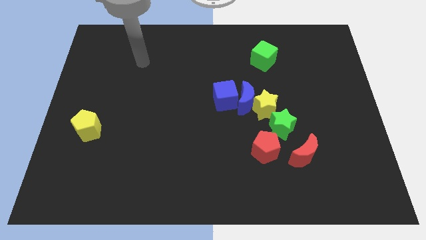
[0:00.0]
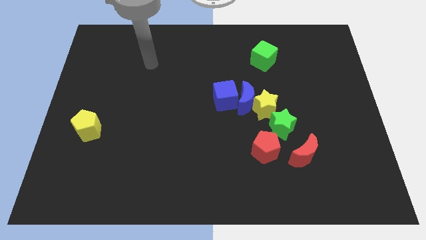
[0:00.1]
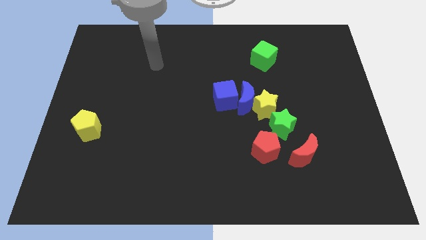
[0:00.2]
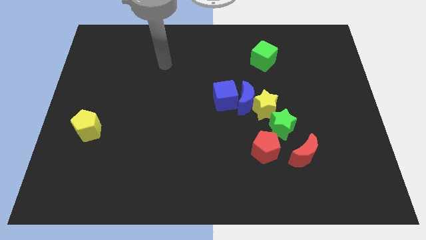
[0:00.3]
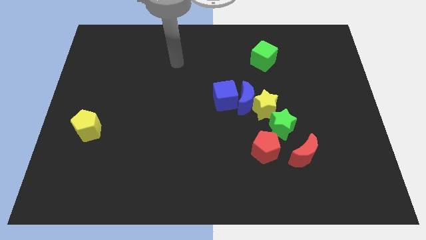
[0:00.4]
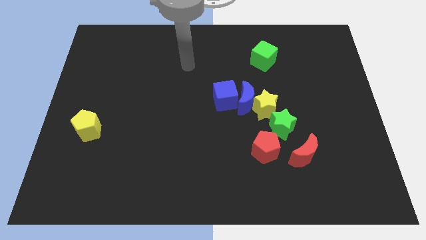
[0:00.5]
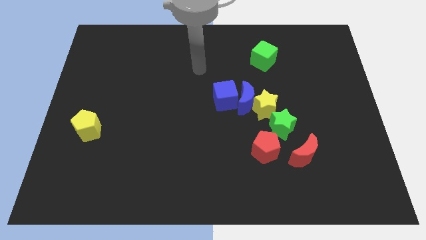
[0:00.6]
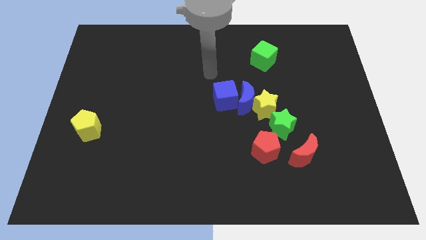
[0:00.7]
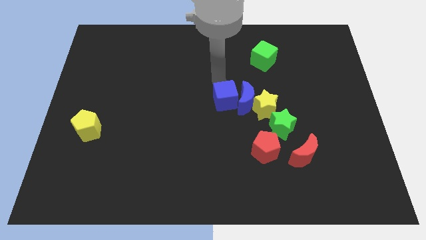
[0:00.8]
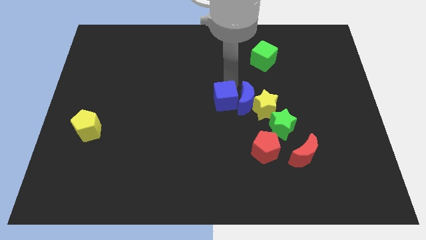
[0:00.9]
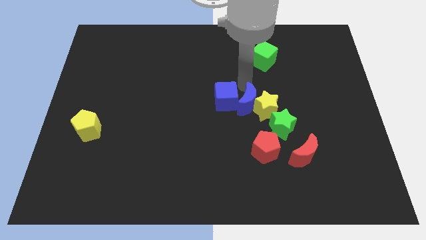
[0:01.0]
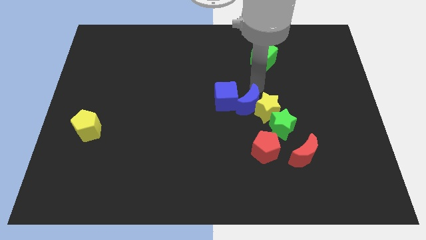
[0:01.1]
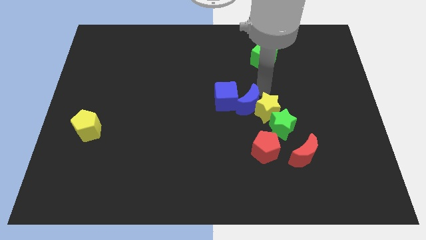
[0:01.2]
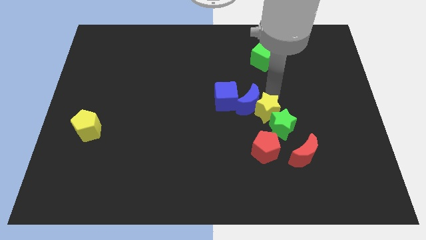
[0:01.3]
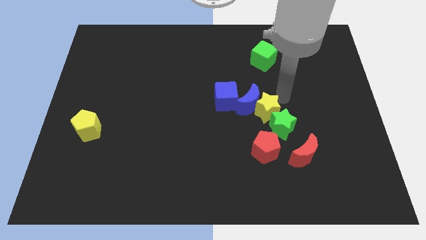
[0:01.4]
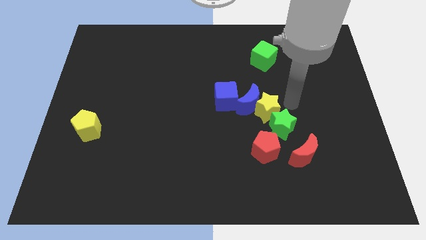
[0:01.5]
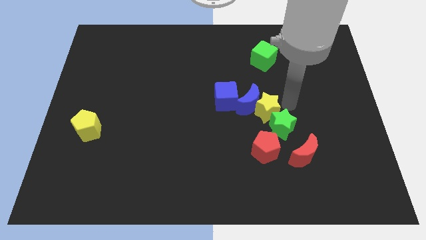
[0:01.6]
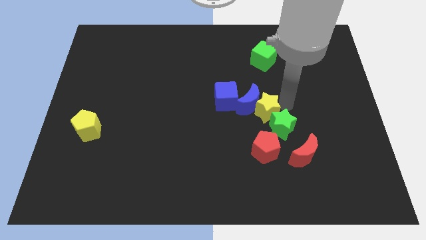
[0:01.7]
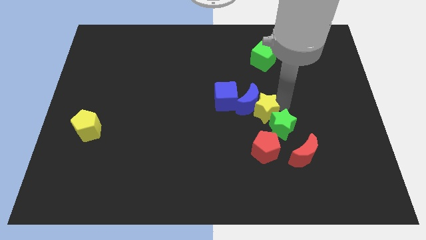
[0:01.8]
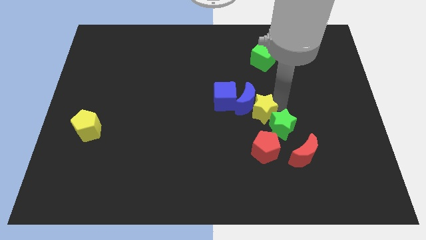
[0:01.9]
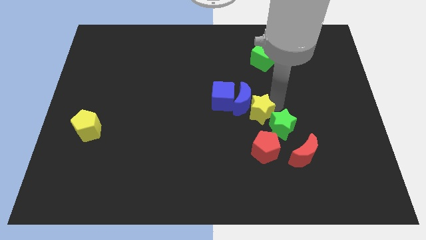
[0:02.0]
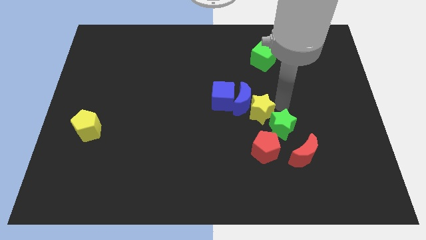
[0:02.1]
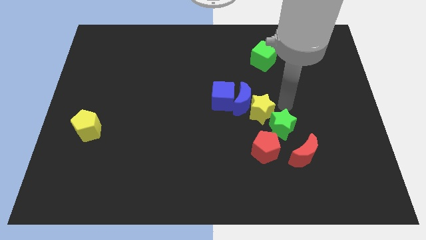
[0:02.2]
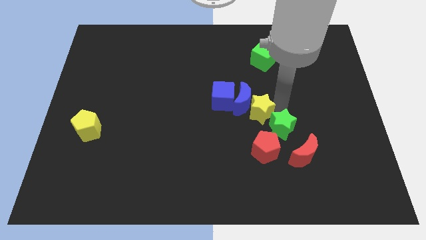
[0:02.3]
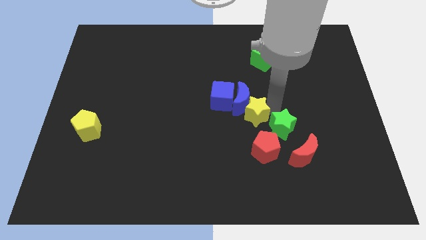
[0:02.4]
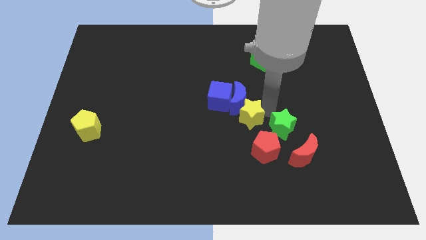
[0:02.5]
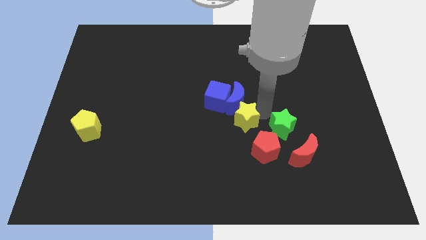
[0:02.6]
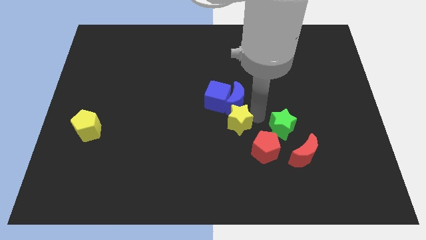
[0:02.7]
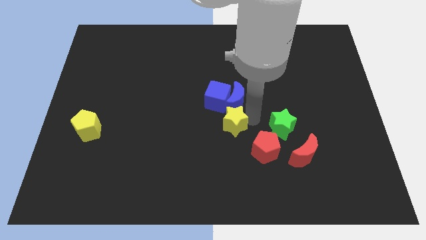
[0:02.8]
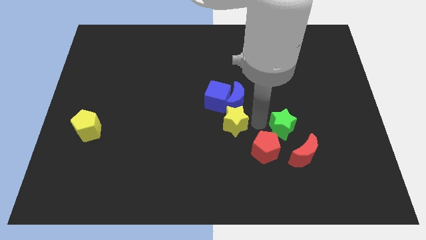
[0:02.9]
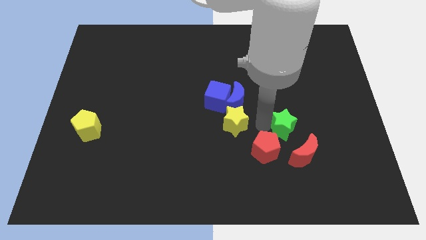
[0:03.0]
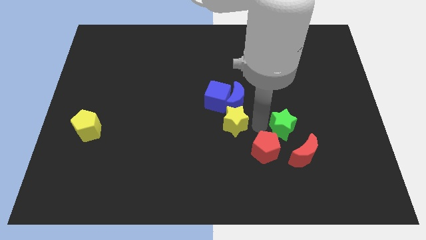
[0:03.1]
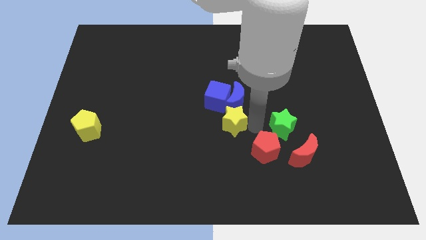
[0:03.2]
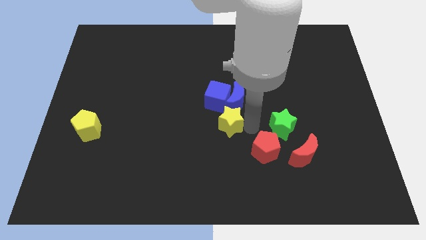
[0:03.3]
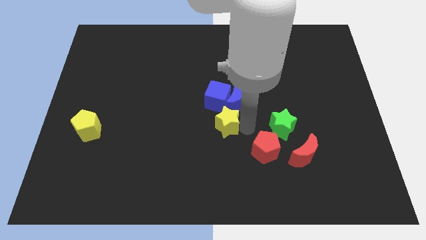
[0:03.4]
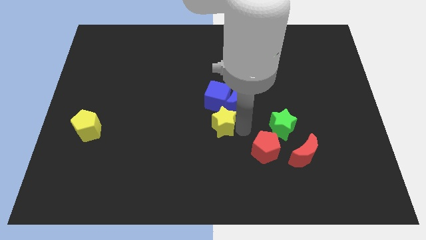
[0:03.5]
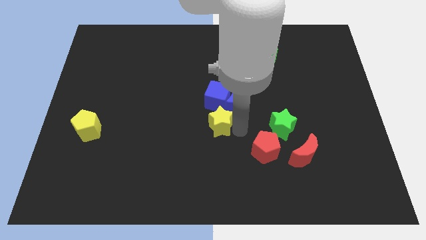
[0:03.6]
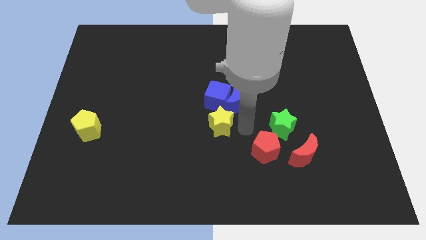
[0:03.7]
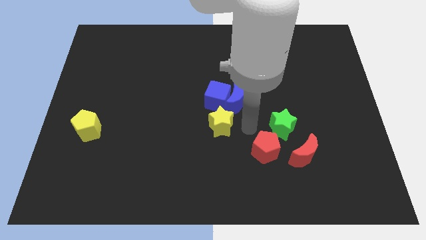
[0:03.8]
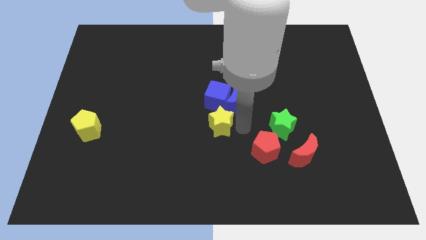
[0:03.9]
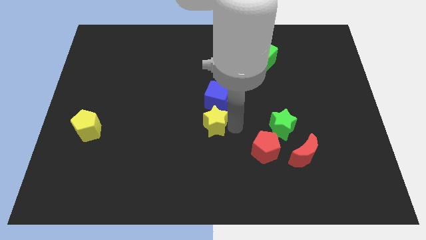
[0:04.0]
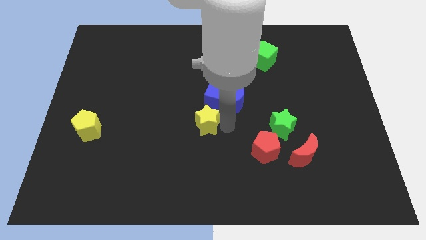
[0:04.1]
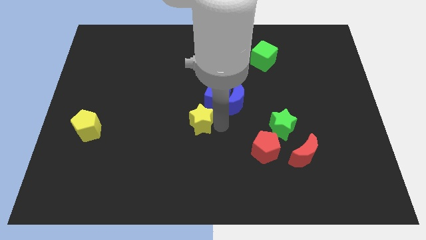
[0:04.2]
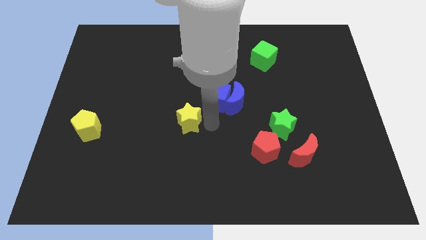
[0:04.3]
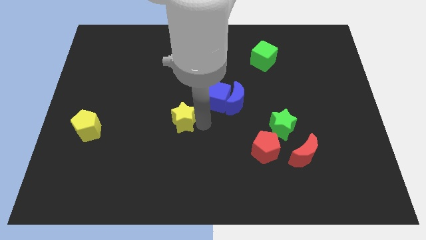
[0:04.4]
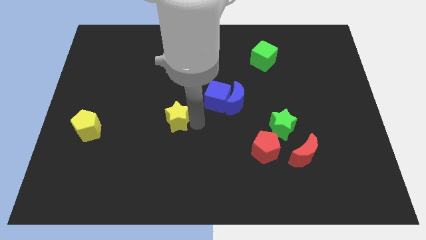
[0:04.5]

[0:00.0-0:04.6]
move the yellow star left

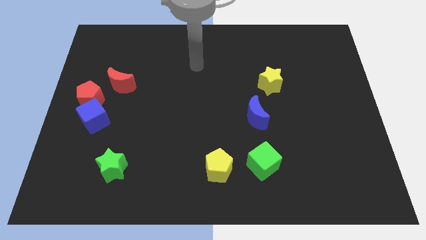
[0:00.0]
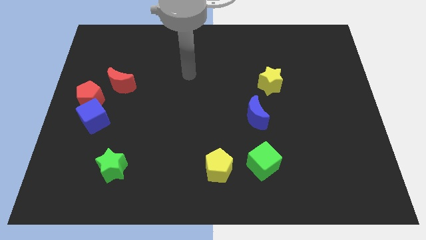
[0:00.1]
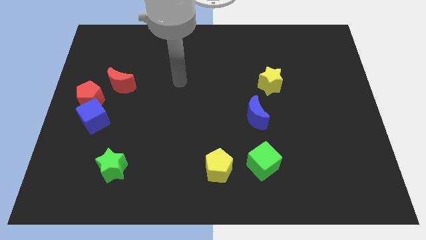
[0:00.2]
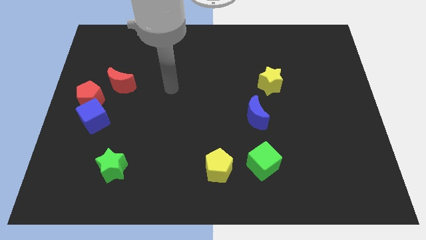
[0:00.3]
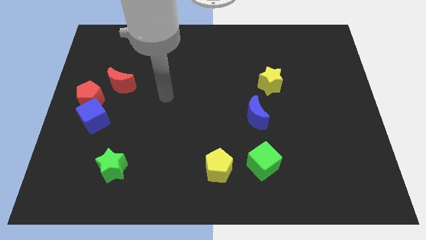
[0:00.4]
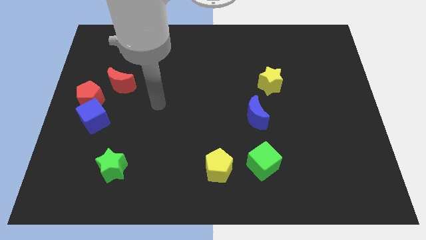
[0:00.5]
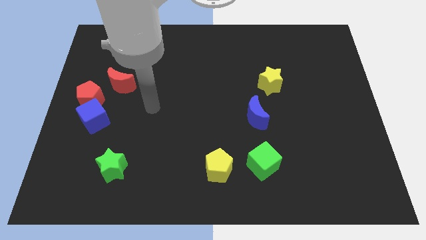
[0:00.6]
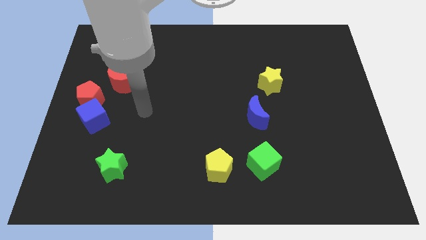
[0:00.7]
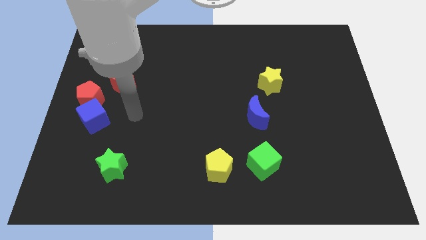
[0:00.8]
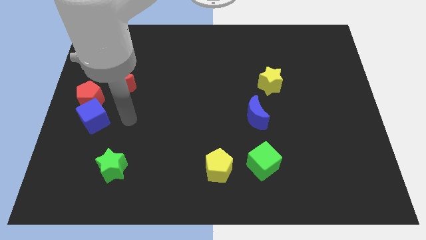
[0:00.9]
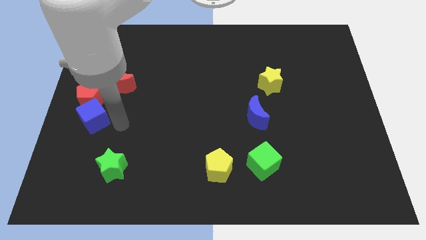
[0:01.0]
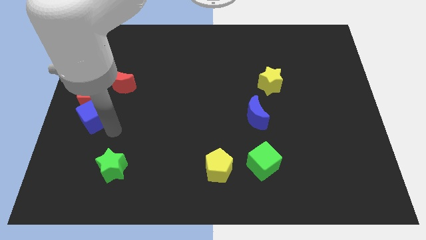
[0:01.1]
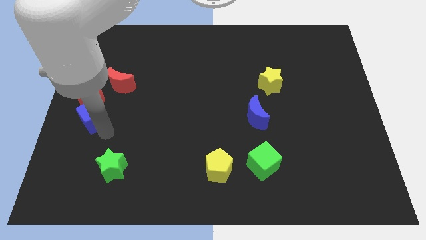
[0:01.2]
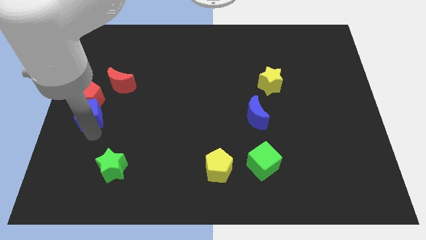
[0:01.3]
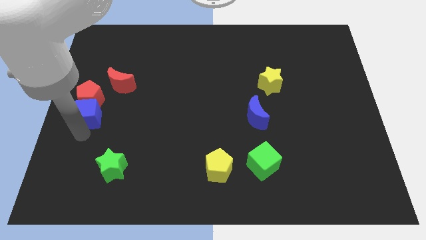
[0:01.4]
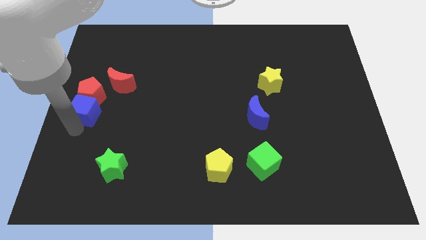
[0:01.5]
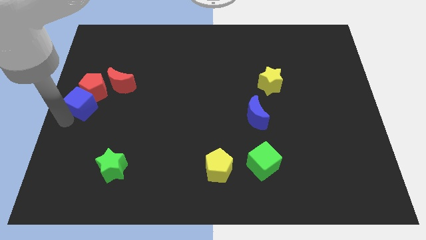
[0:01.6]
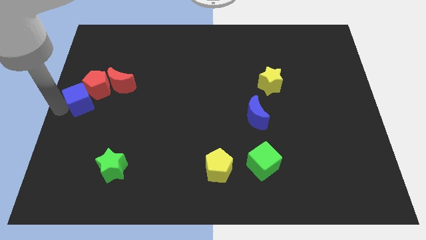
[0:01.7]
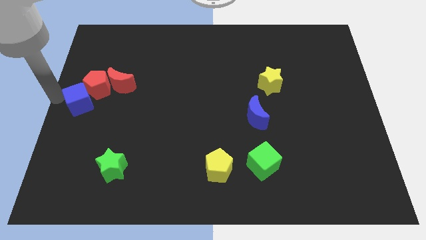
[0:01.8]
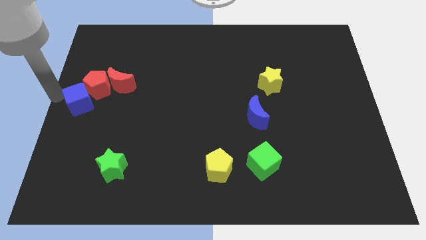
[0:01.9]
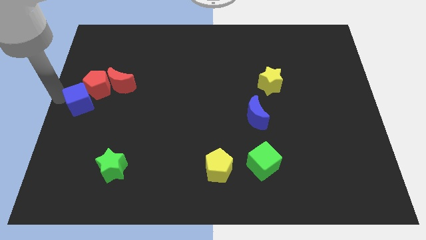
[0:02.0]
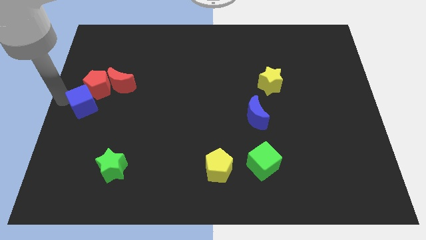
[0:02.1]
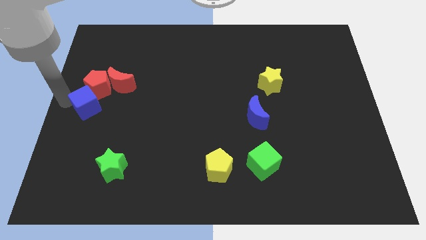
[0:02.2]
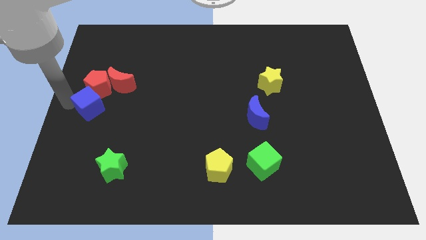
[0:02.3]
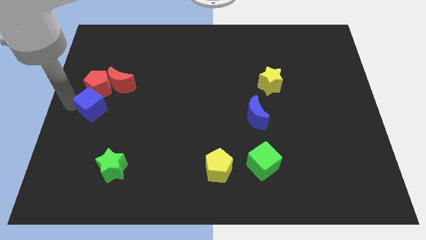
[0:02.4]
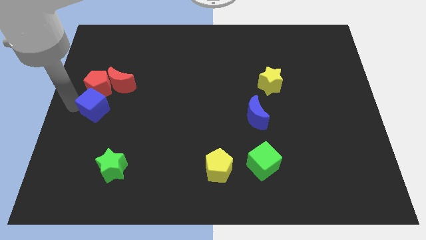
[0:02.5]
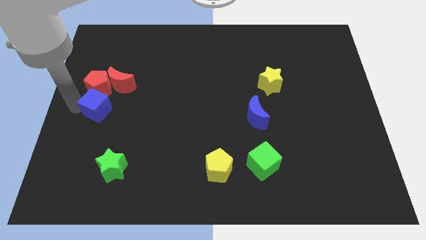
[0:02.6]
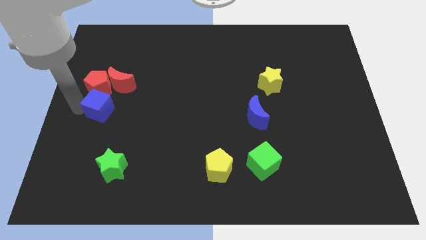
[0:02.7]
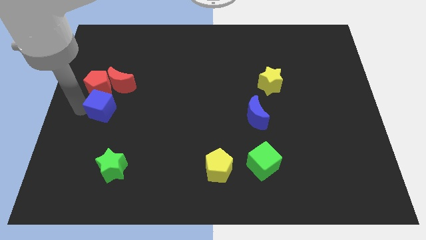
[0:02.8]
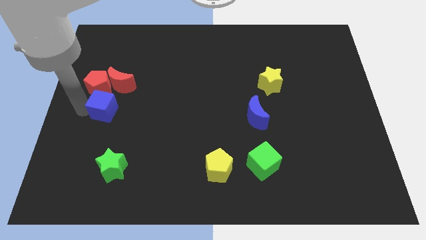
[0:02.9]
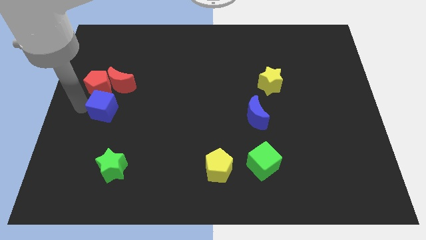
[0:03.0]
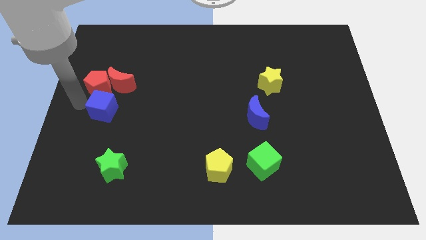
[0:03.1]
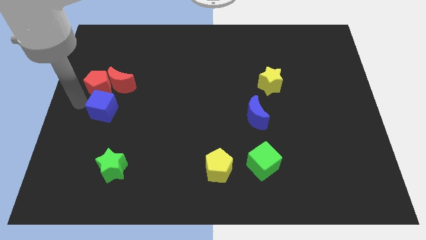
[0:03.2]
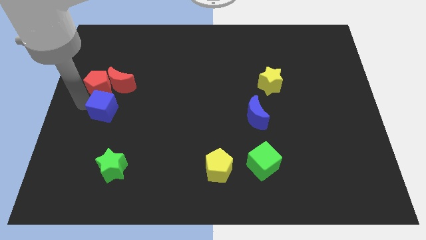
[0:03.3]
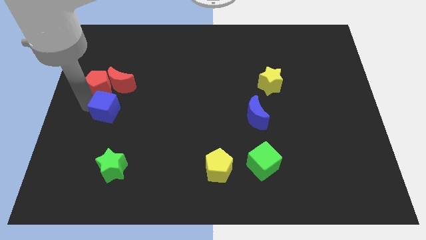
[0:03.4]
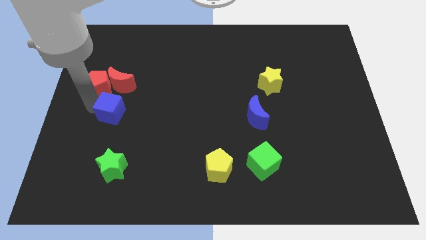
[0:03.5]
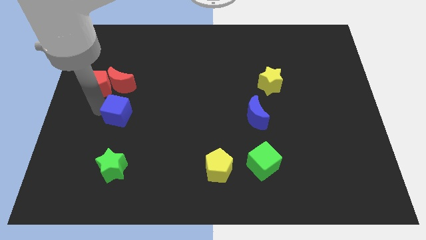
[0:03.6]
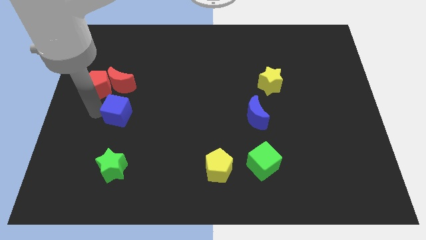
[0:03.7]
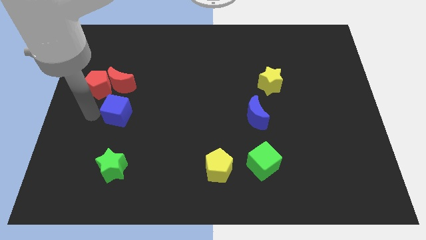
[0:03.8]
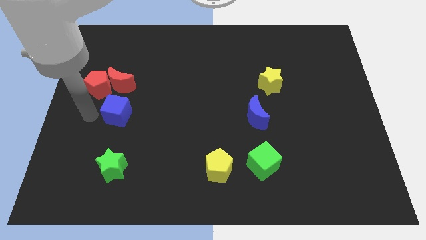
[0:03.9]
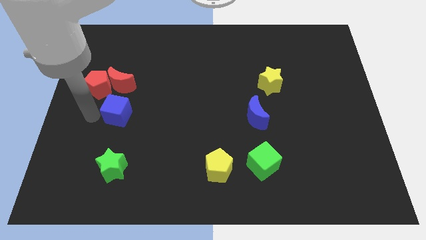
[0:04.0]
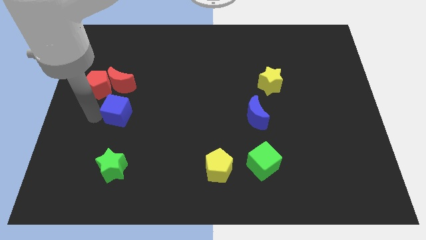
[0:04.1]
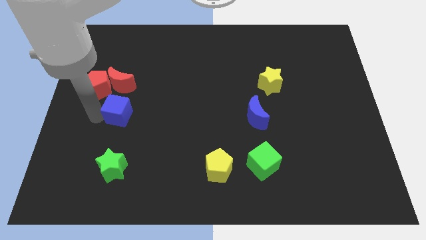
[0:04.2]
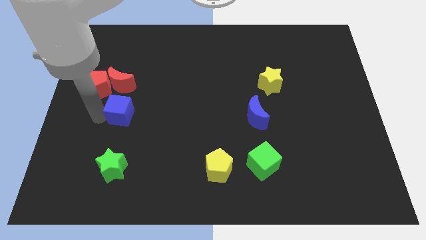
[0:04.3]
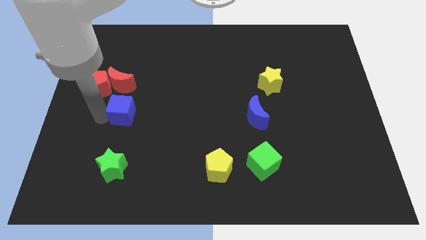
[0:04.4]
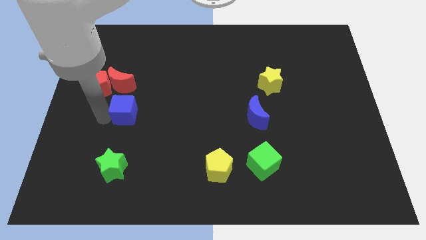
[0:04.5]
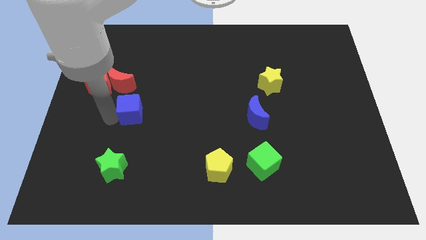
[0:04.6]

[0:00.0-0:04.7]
slide the blue cube a little to the right
